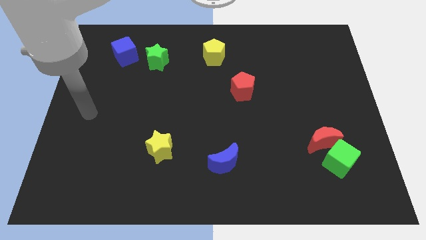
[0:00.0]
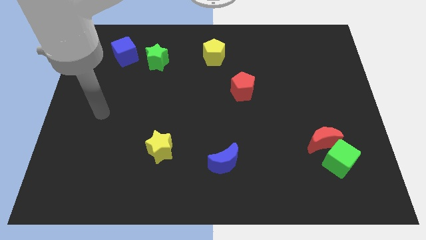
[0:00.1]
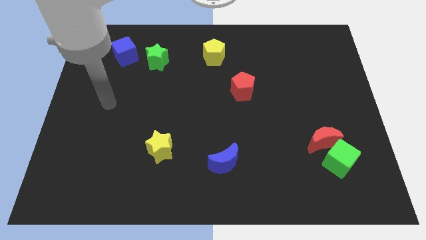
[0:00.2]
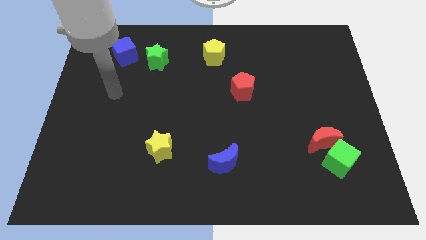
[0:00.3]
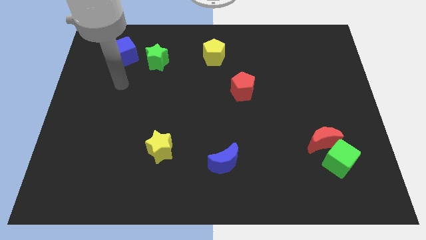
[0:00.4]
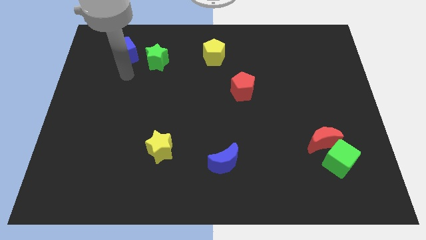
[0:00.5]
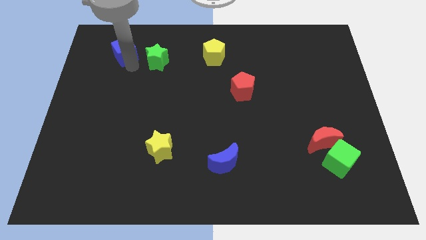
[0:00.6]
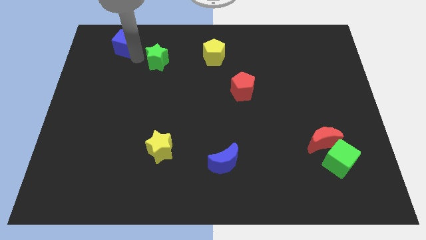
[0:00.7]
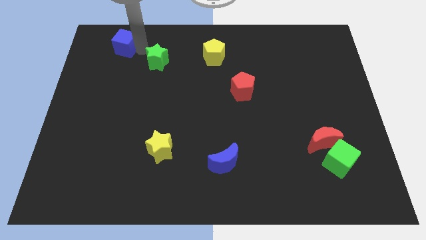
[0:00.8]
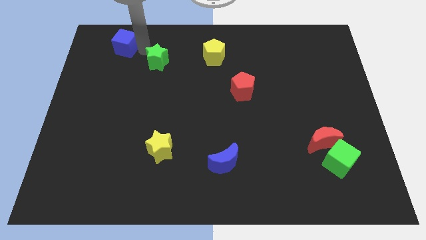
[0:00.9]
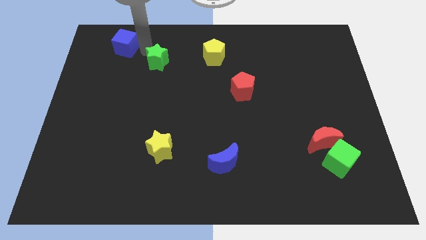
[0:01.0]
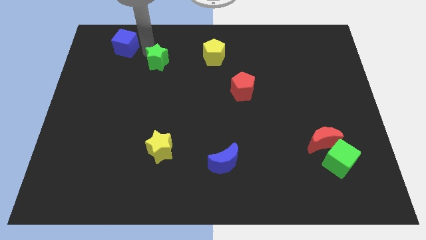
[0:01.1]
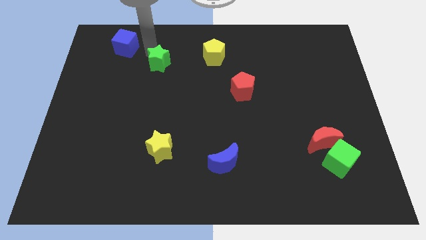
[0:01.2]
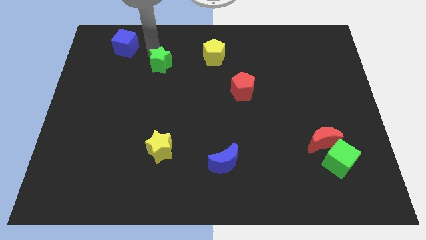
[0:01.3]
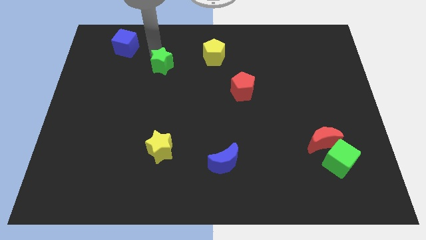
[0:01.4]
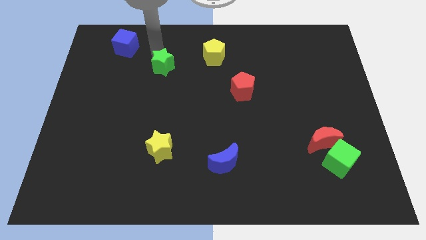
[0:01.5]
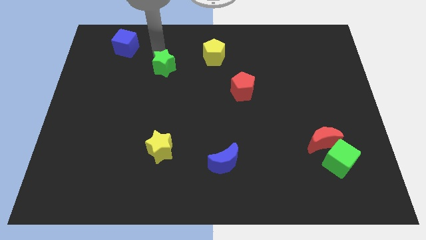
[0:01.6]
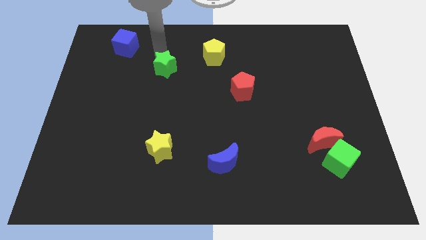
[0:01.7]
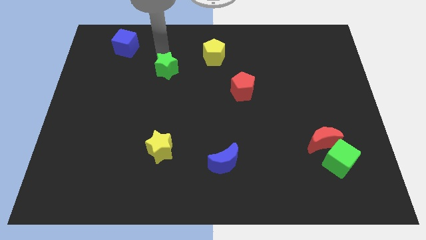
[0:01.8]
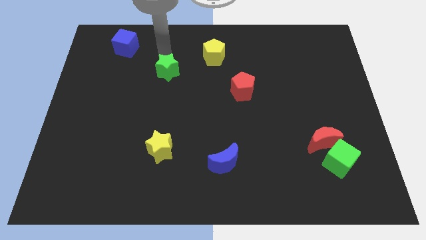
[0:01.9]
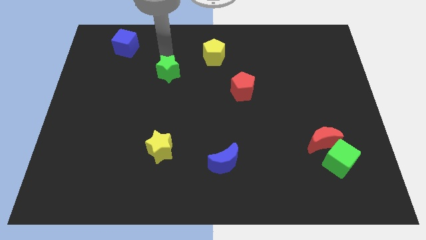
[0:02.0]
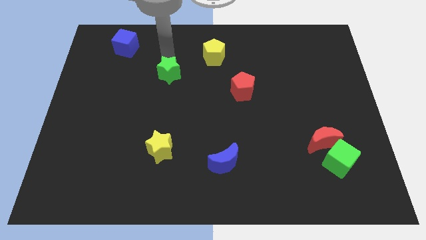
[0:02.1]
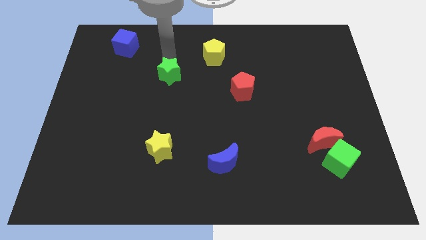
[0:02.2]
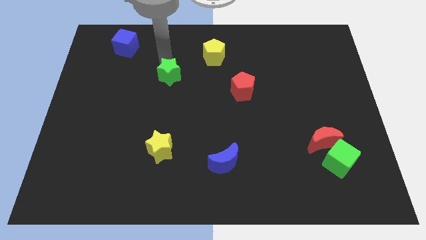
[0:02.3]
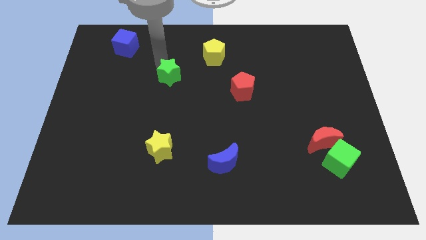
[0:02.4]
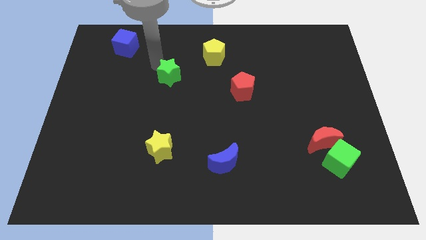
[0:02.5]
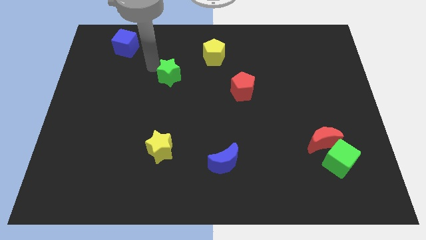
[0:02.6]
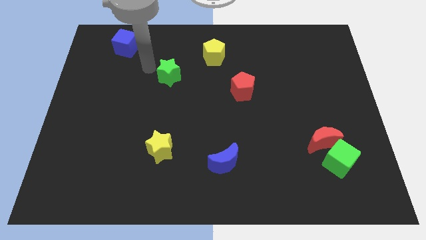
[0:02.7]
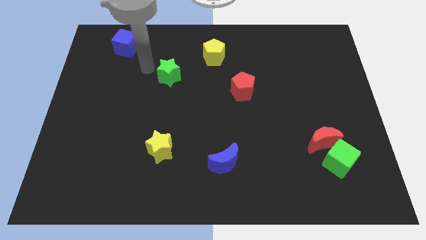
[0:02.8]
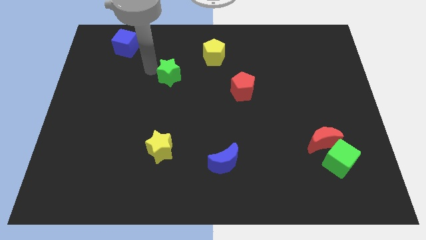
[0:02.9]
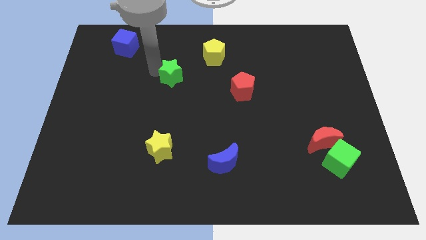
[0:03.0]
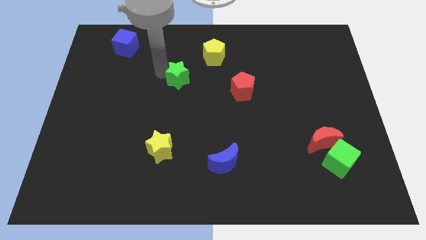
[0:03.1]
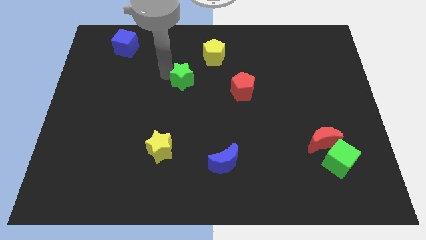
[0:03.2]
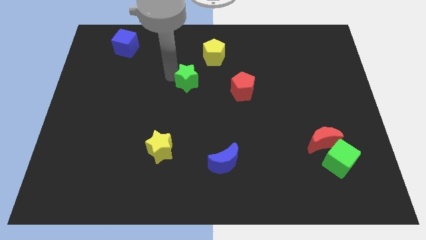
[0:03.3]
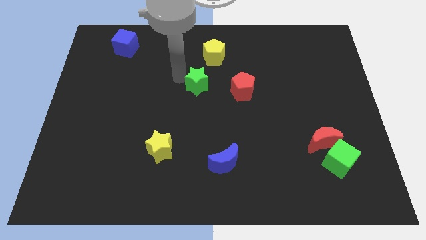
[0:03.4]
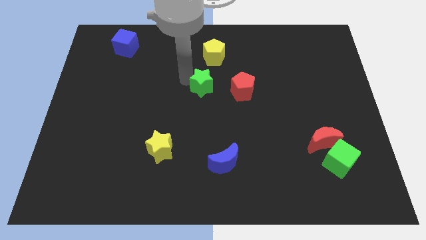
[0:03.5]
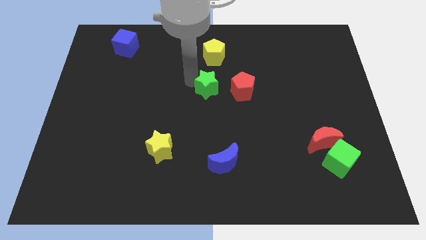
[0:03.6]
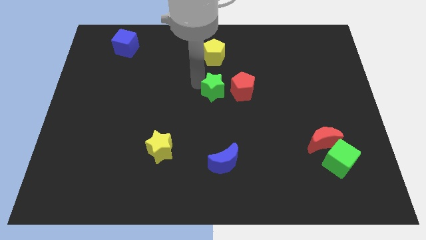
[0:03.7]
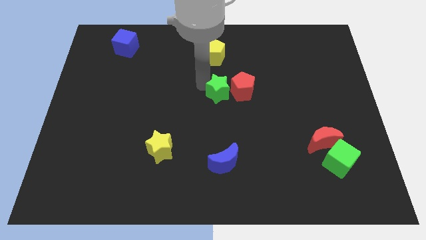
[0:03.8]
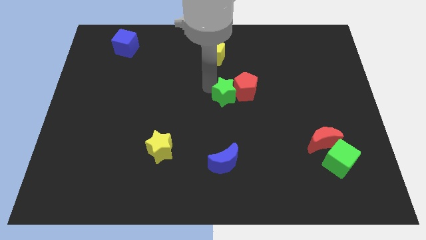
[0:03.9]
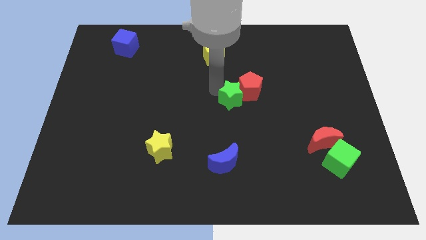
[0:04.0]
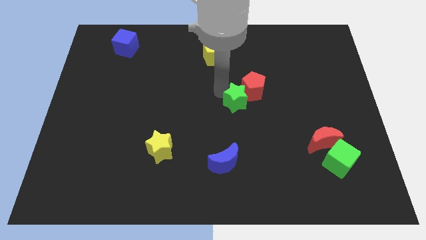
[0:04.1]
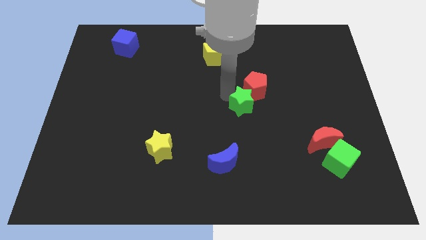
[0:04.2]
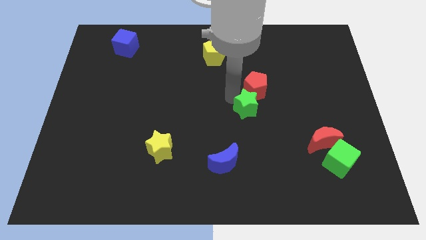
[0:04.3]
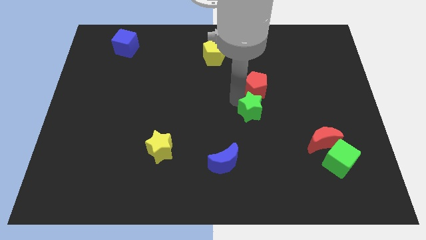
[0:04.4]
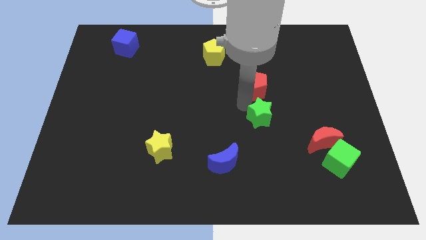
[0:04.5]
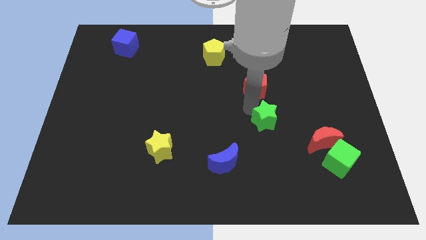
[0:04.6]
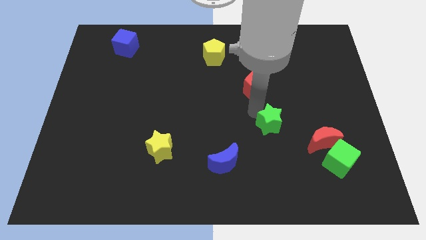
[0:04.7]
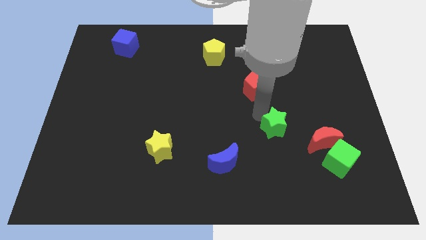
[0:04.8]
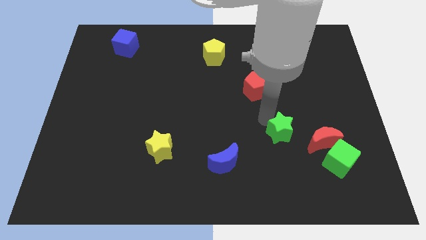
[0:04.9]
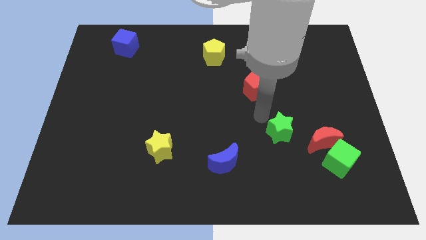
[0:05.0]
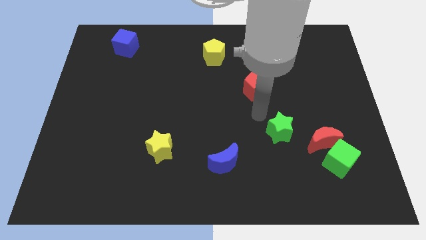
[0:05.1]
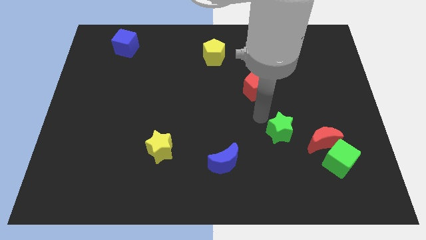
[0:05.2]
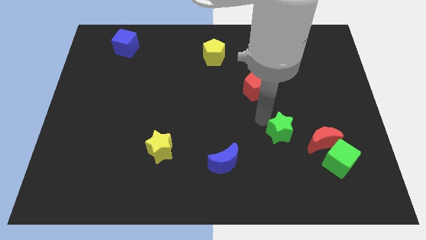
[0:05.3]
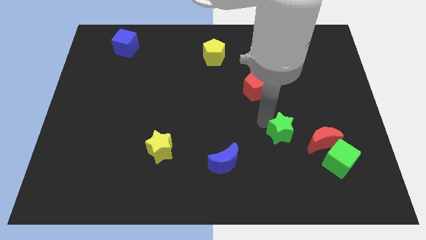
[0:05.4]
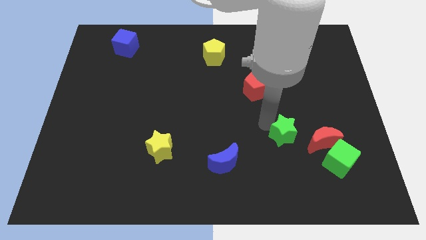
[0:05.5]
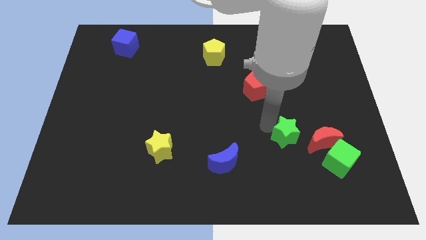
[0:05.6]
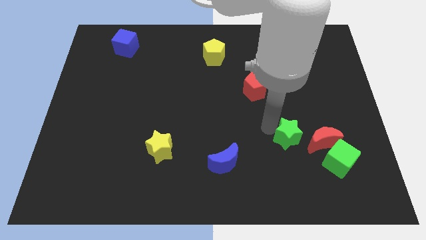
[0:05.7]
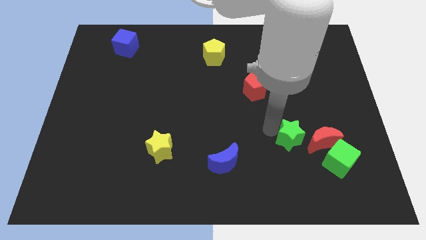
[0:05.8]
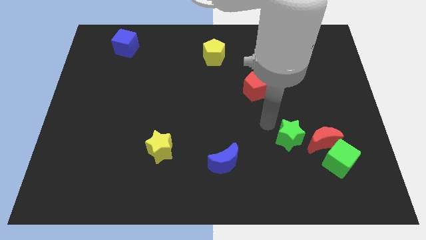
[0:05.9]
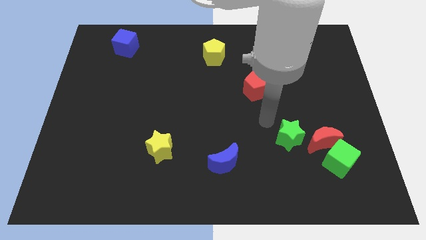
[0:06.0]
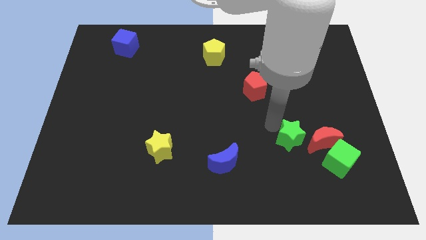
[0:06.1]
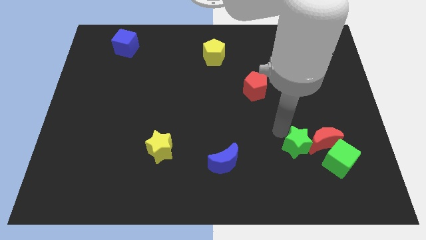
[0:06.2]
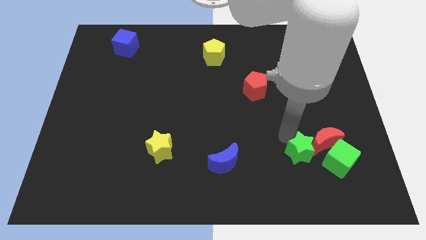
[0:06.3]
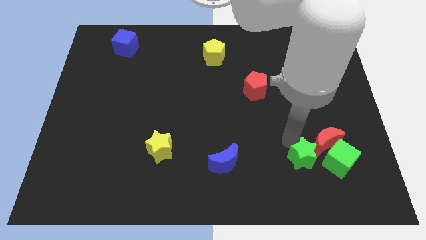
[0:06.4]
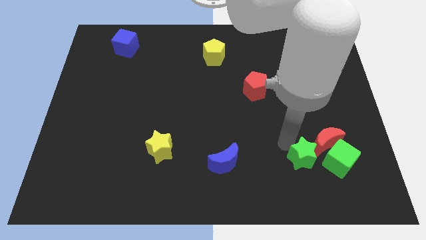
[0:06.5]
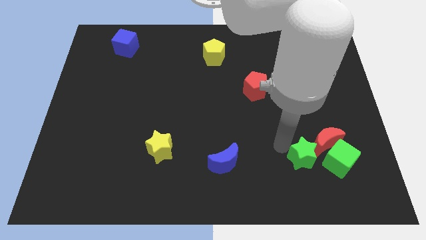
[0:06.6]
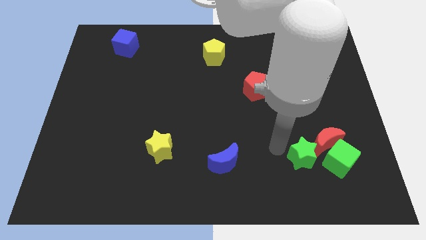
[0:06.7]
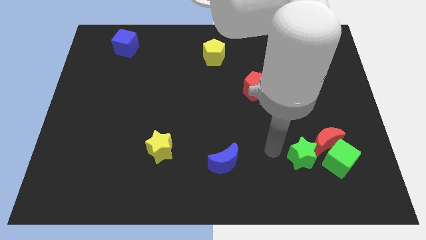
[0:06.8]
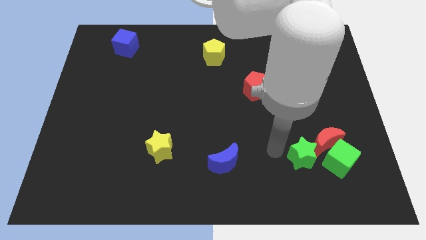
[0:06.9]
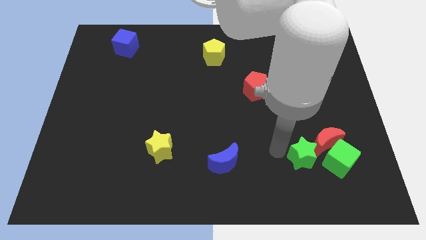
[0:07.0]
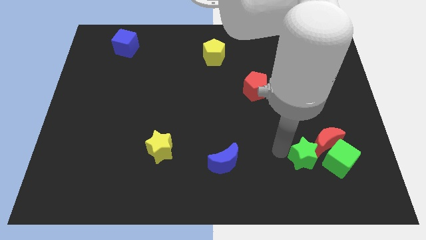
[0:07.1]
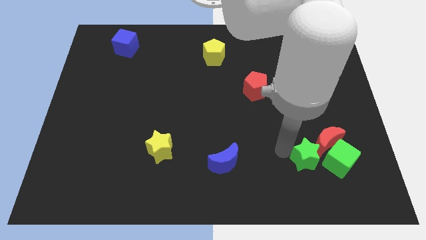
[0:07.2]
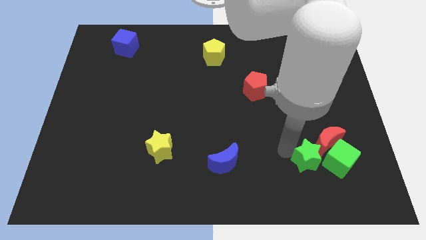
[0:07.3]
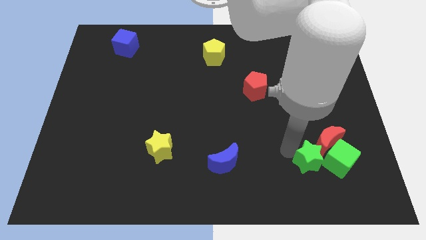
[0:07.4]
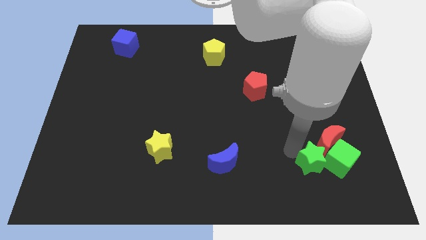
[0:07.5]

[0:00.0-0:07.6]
push the green star next to the green cube

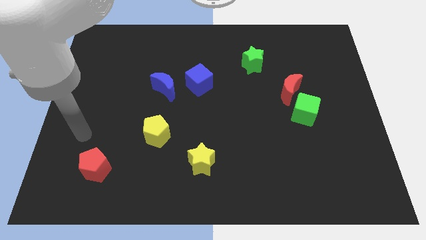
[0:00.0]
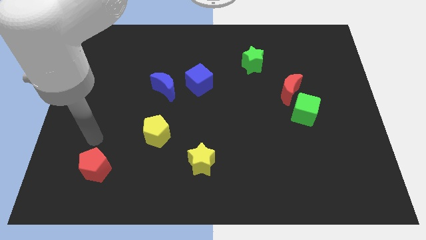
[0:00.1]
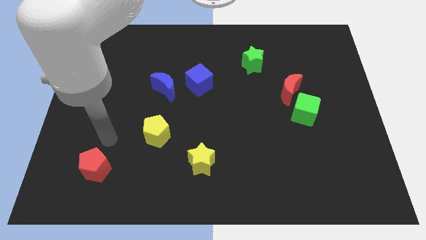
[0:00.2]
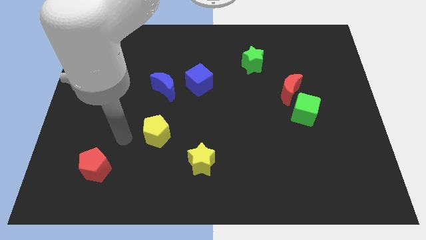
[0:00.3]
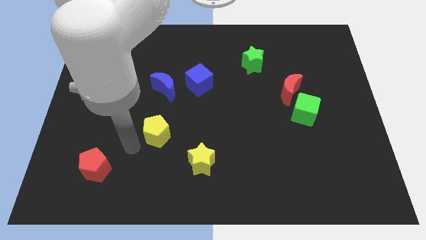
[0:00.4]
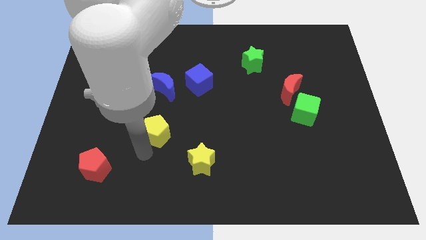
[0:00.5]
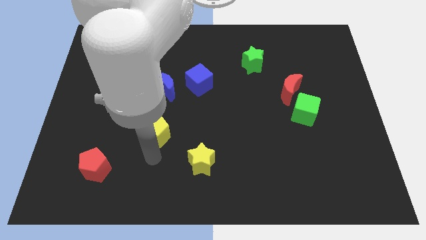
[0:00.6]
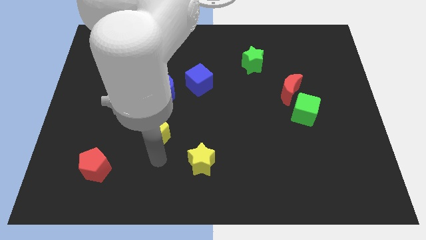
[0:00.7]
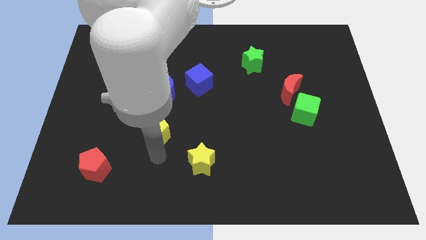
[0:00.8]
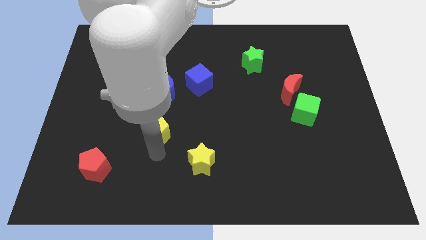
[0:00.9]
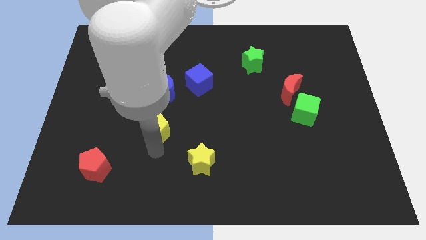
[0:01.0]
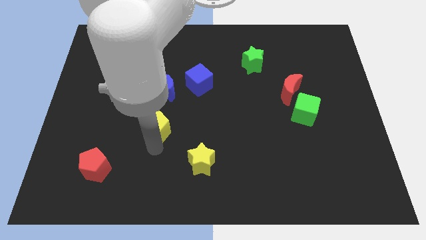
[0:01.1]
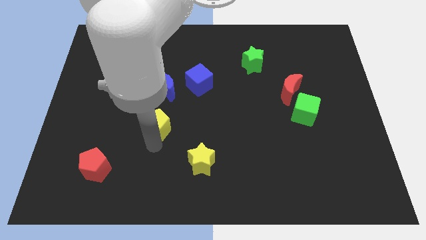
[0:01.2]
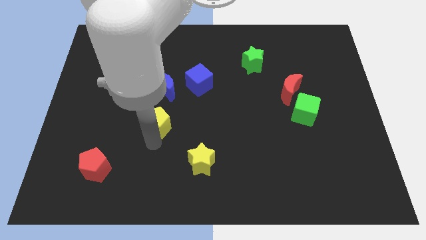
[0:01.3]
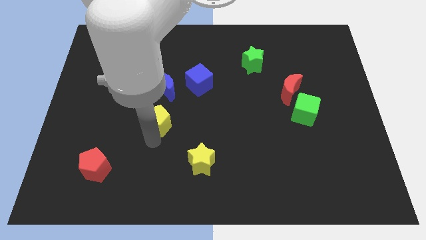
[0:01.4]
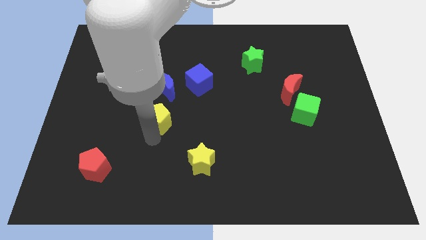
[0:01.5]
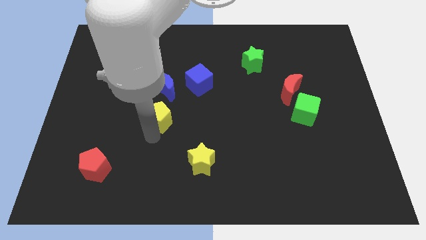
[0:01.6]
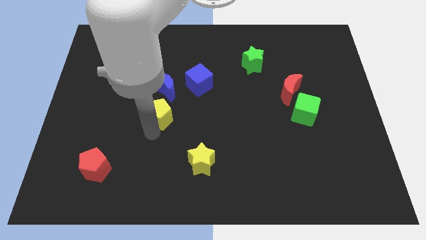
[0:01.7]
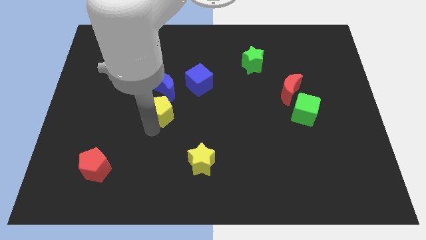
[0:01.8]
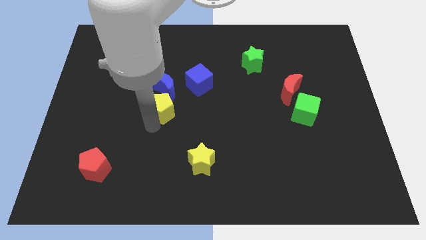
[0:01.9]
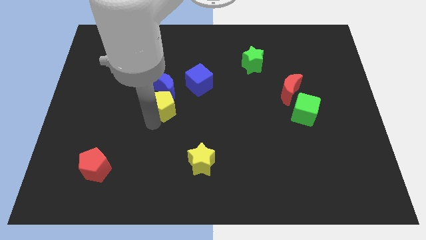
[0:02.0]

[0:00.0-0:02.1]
put the yellow pentagon towards the blue moon
